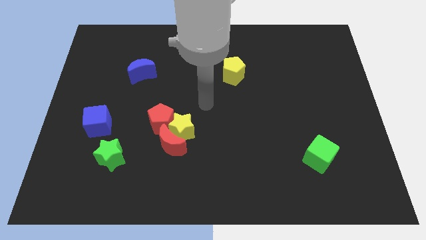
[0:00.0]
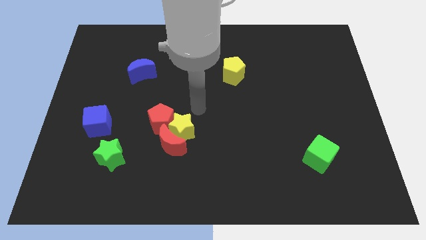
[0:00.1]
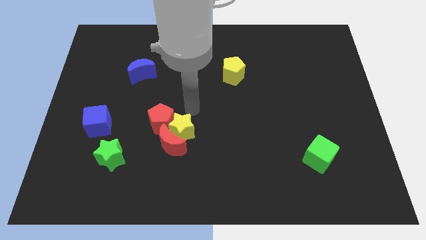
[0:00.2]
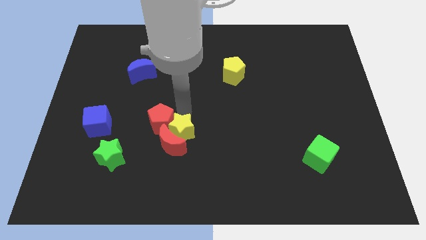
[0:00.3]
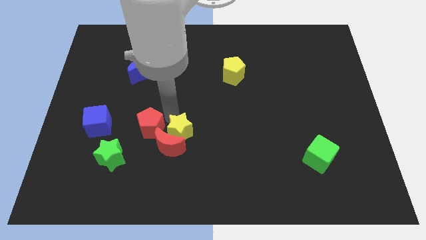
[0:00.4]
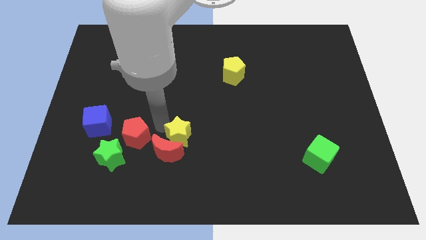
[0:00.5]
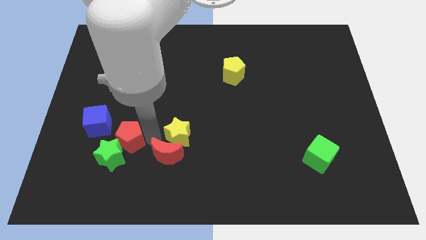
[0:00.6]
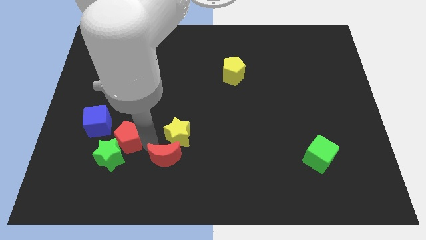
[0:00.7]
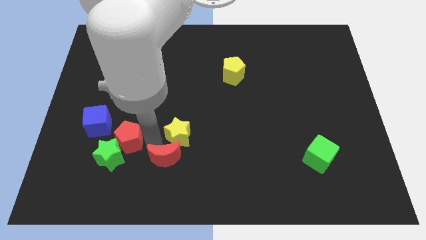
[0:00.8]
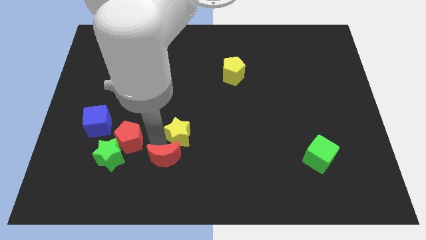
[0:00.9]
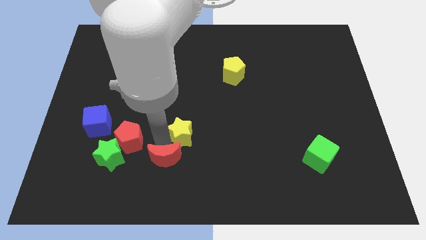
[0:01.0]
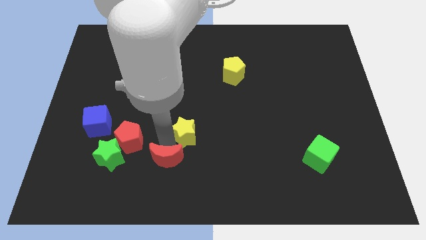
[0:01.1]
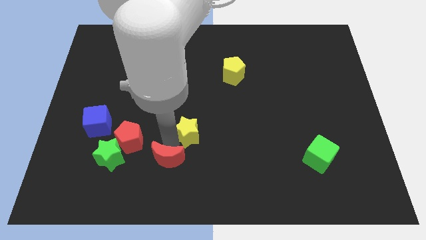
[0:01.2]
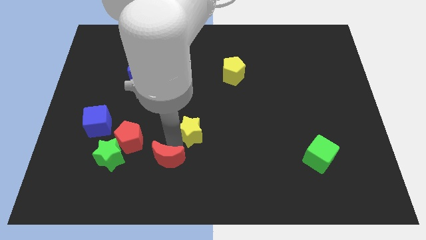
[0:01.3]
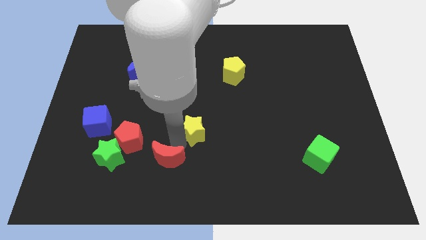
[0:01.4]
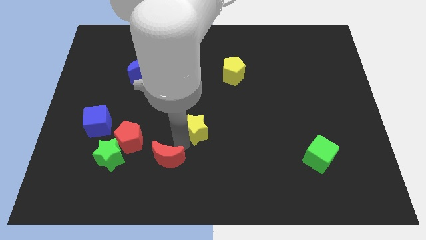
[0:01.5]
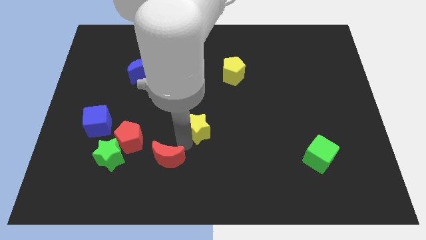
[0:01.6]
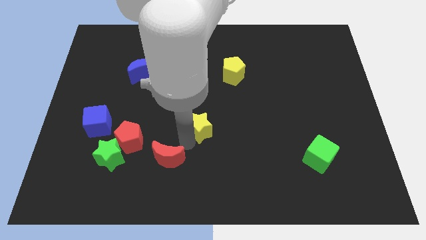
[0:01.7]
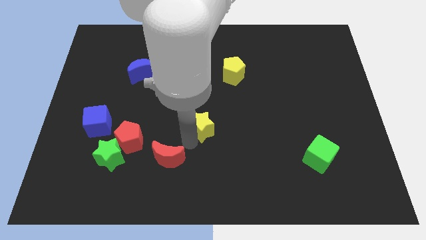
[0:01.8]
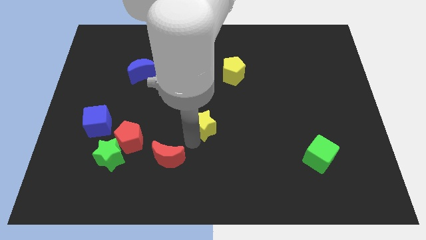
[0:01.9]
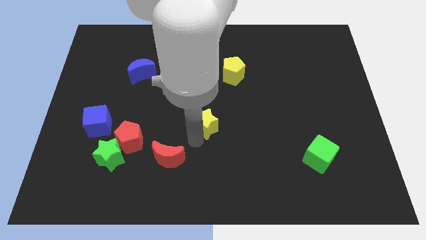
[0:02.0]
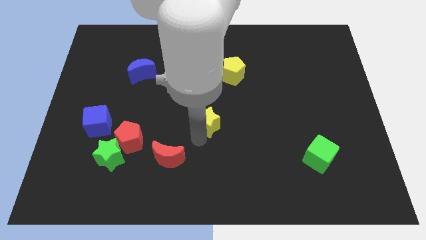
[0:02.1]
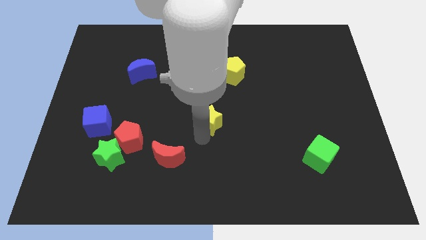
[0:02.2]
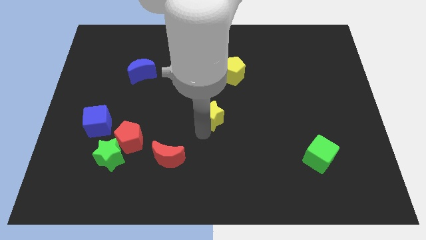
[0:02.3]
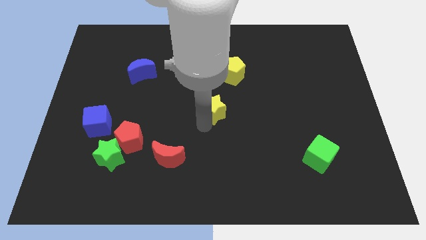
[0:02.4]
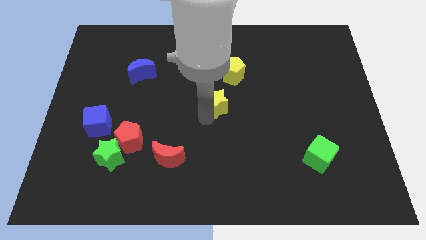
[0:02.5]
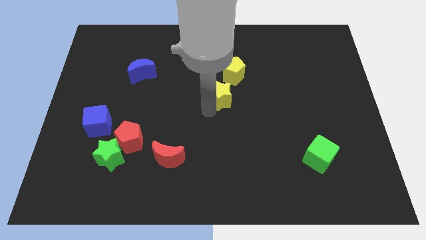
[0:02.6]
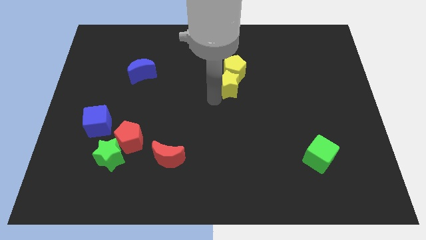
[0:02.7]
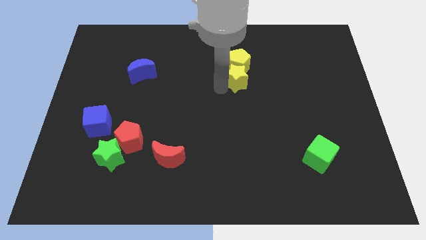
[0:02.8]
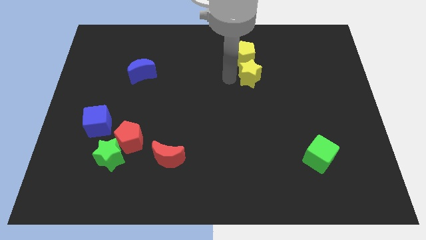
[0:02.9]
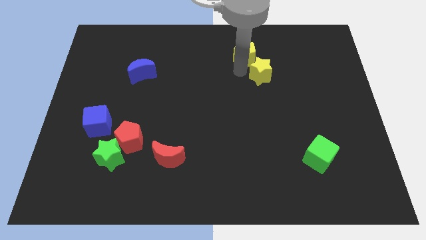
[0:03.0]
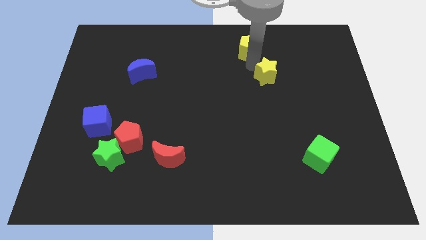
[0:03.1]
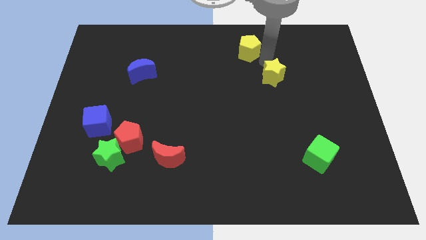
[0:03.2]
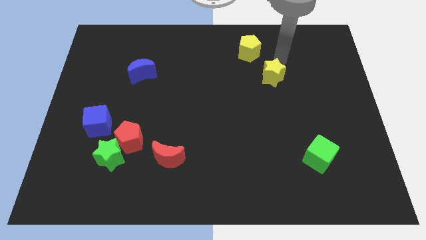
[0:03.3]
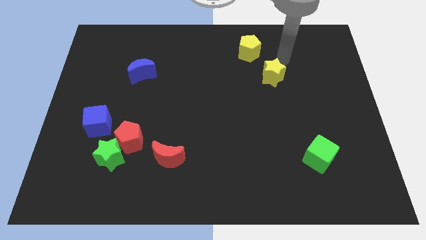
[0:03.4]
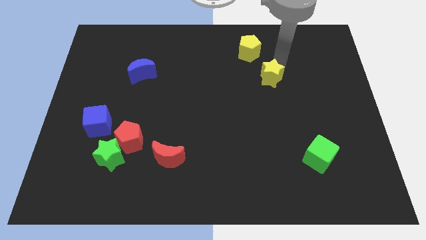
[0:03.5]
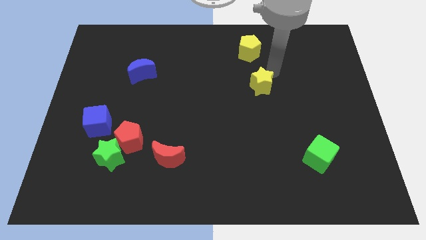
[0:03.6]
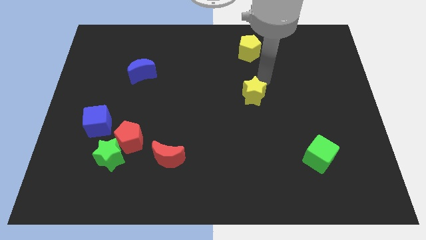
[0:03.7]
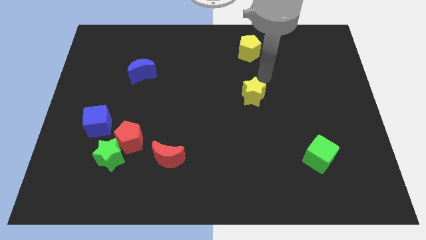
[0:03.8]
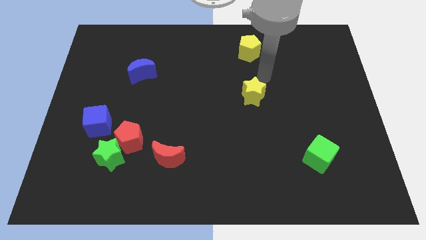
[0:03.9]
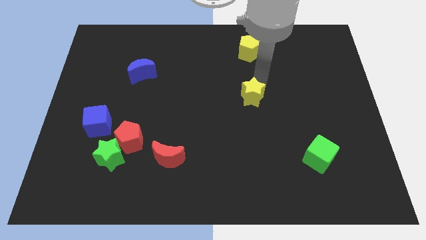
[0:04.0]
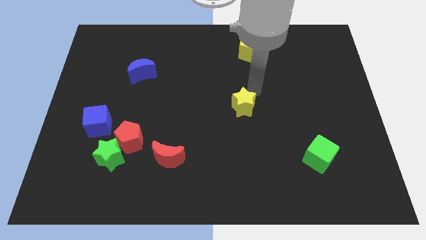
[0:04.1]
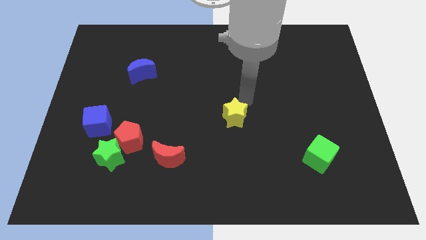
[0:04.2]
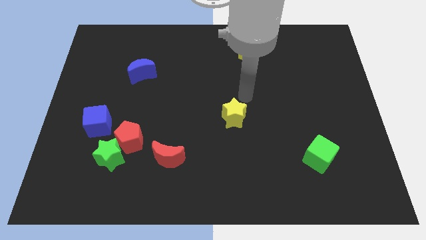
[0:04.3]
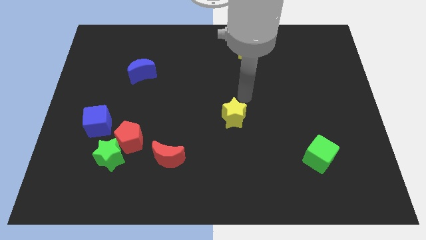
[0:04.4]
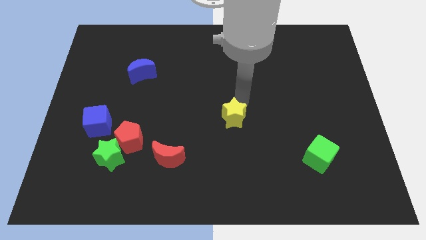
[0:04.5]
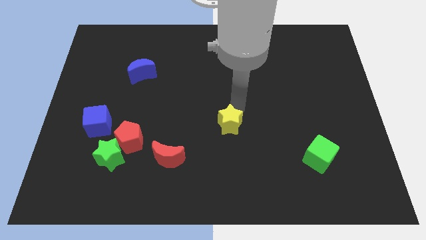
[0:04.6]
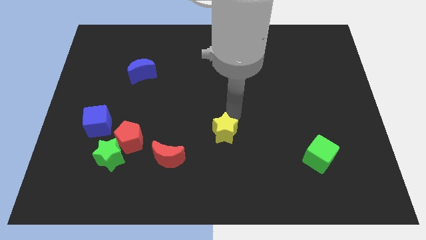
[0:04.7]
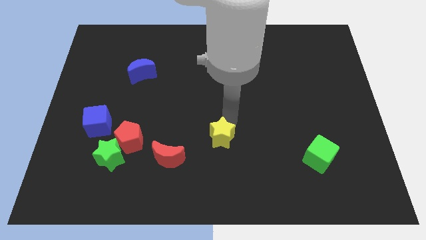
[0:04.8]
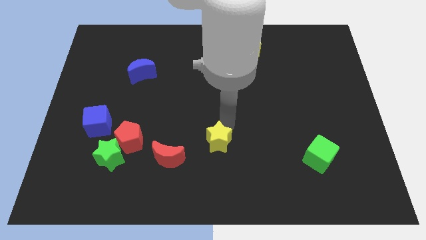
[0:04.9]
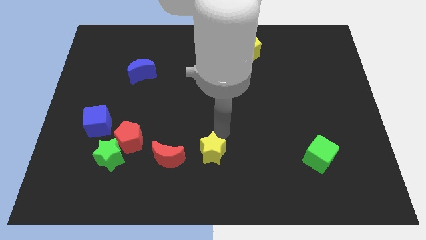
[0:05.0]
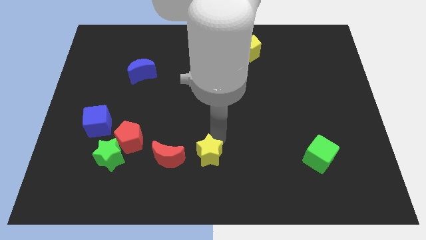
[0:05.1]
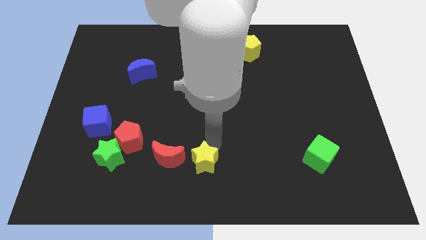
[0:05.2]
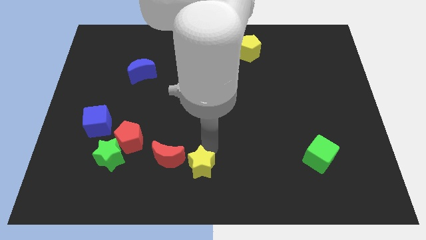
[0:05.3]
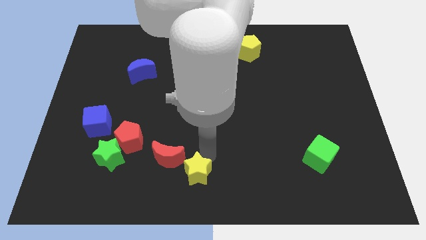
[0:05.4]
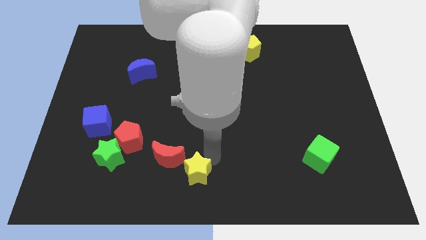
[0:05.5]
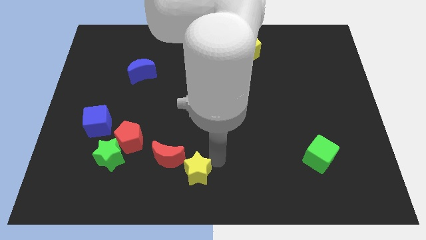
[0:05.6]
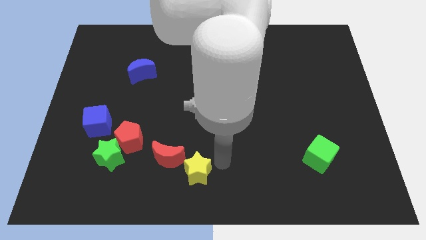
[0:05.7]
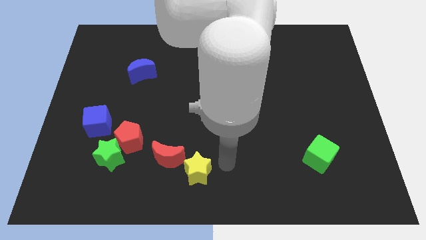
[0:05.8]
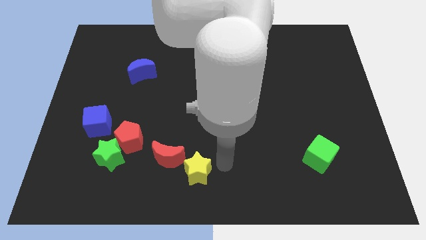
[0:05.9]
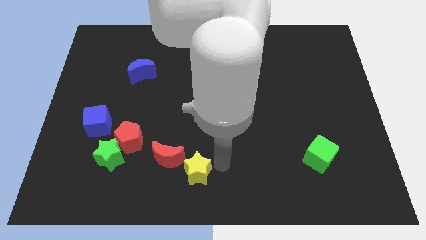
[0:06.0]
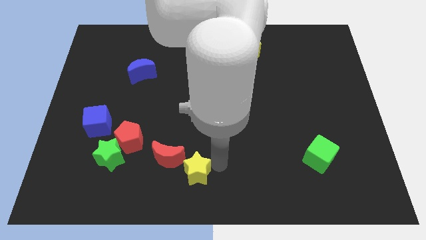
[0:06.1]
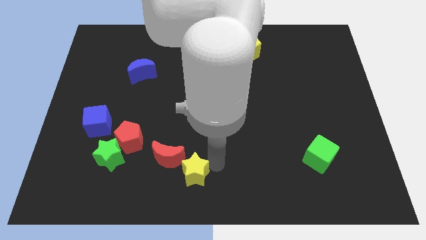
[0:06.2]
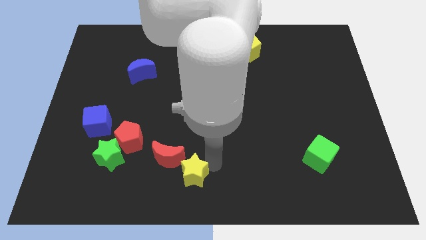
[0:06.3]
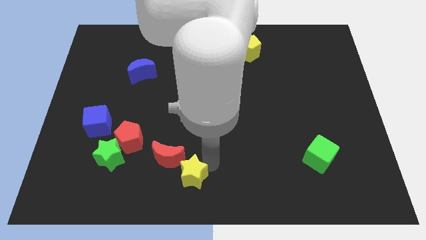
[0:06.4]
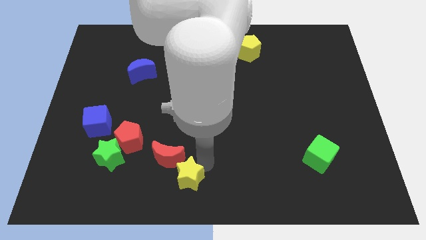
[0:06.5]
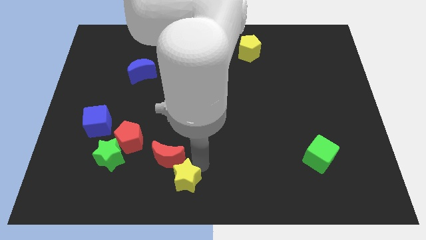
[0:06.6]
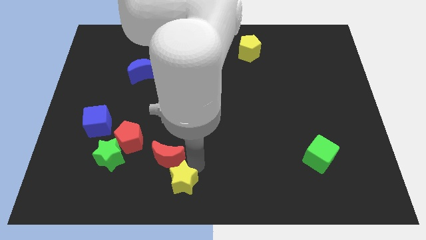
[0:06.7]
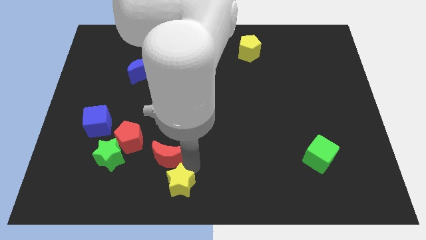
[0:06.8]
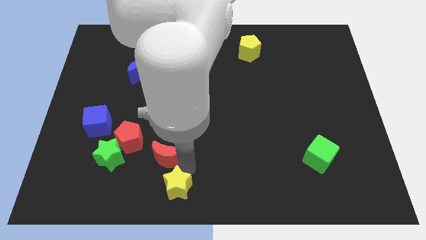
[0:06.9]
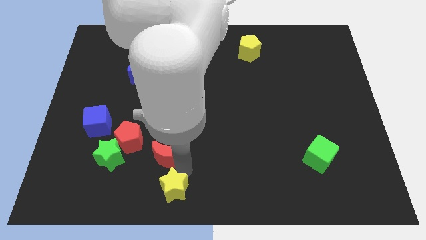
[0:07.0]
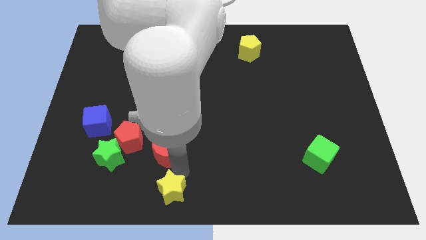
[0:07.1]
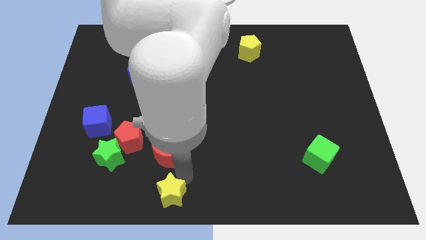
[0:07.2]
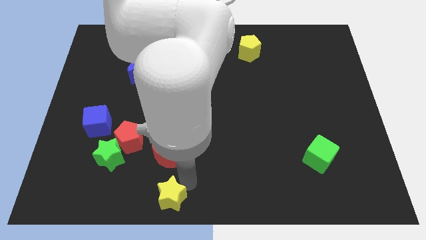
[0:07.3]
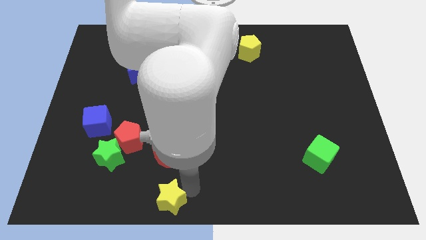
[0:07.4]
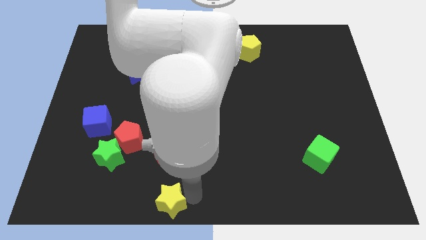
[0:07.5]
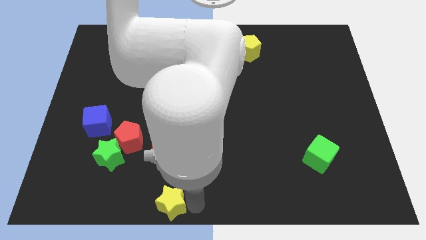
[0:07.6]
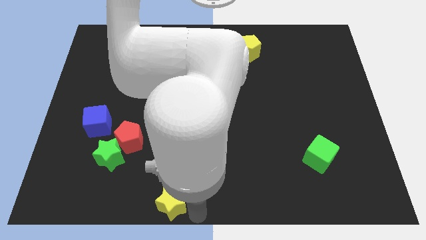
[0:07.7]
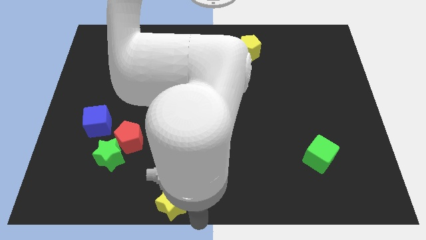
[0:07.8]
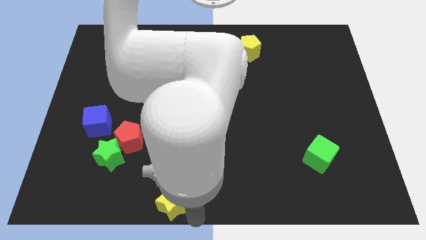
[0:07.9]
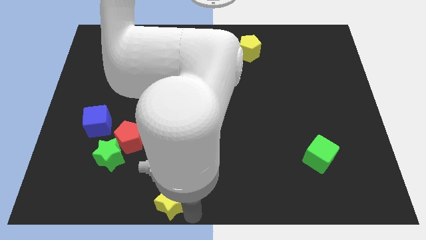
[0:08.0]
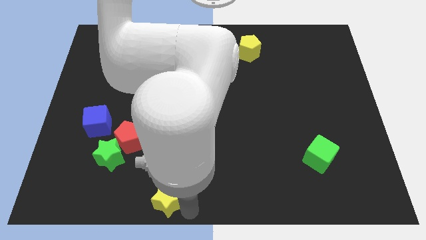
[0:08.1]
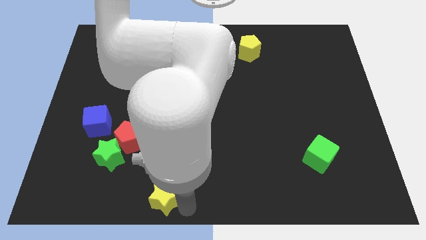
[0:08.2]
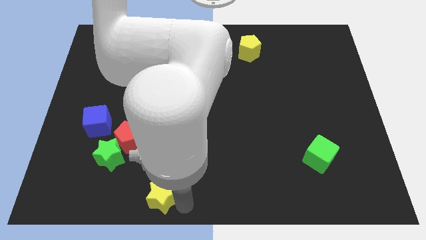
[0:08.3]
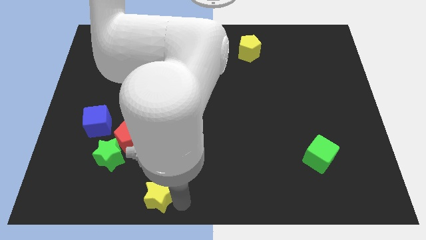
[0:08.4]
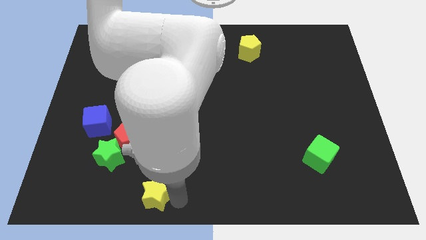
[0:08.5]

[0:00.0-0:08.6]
move the yellow star to the bottom left side of the red moon
